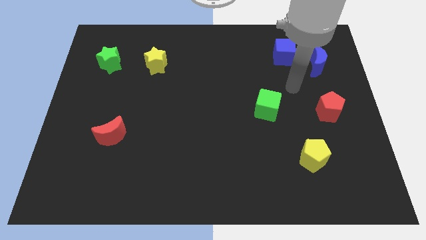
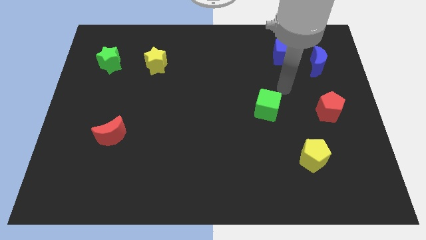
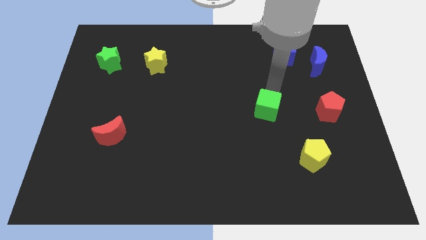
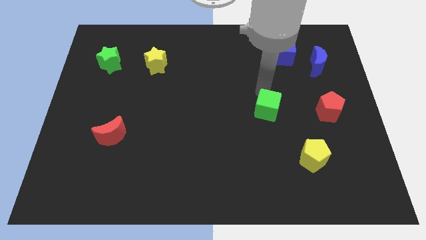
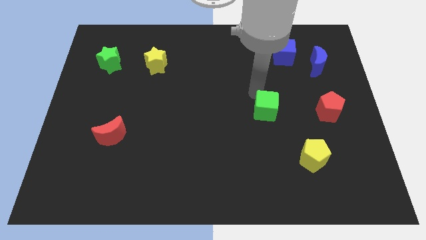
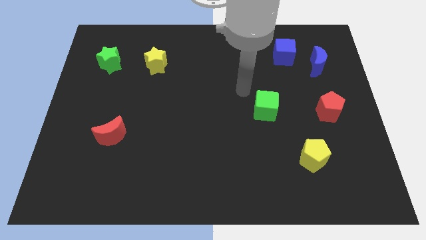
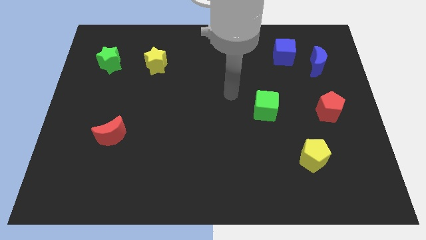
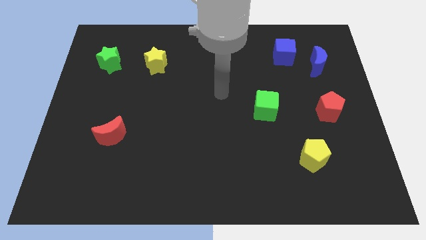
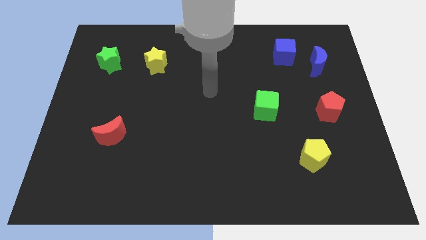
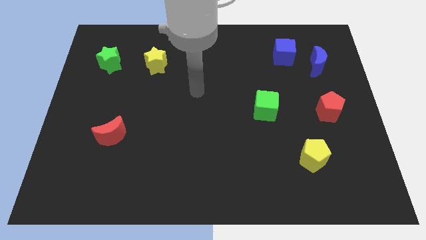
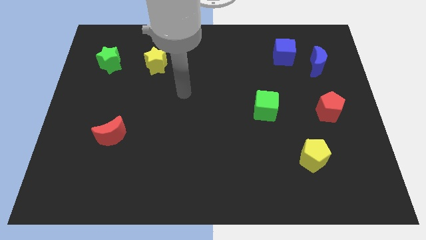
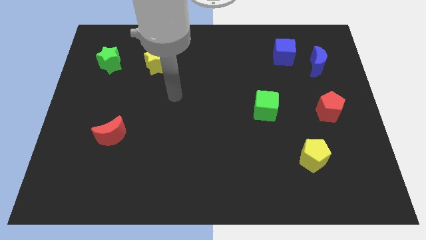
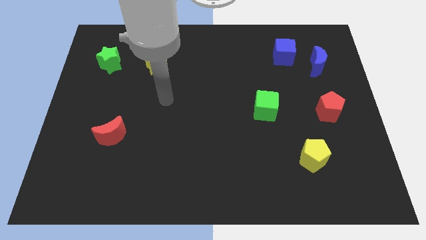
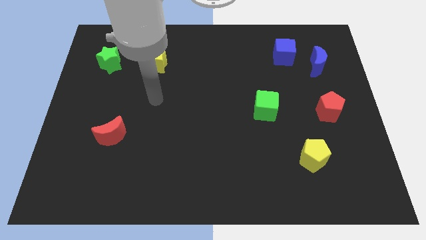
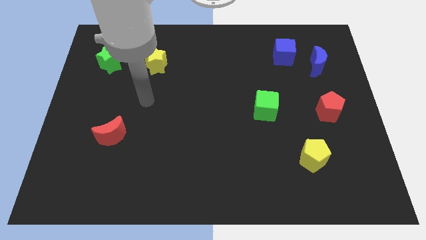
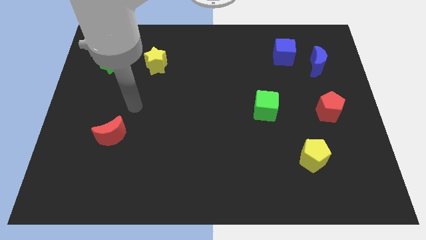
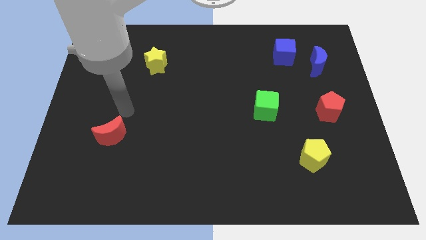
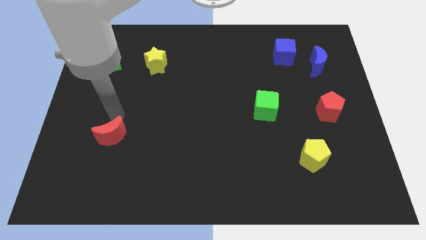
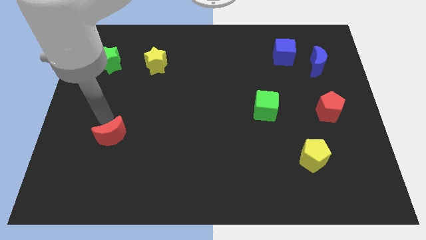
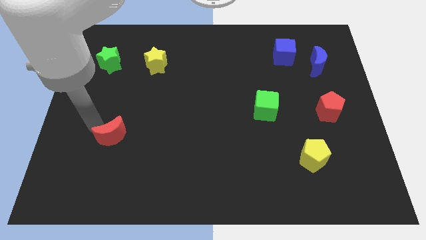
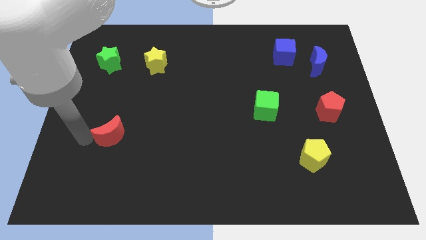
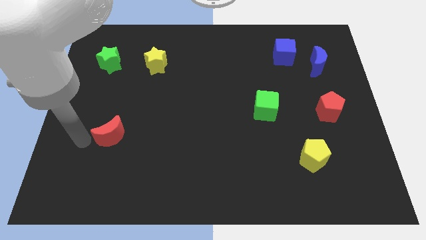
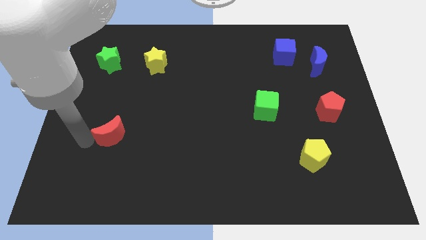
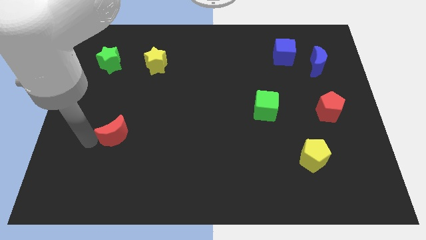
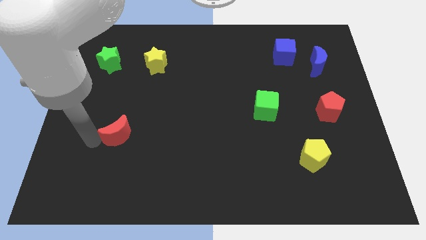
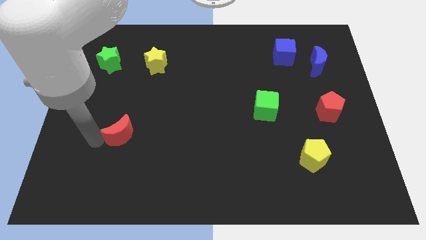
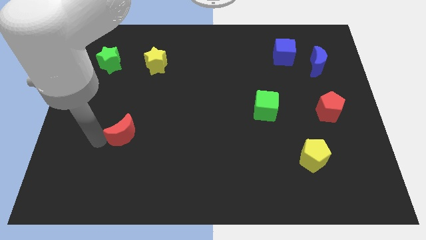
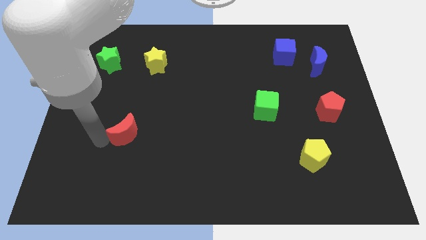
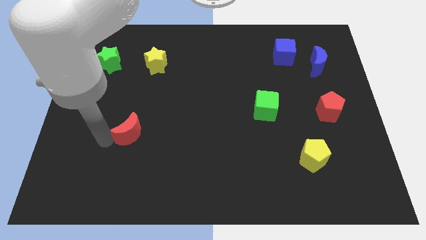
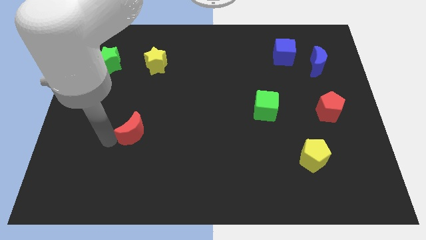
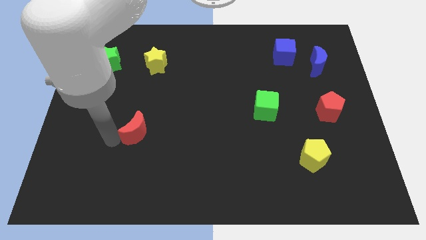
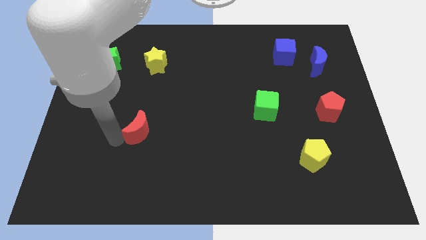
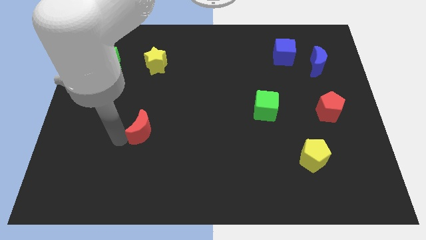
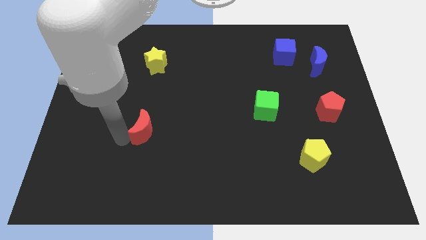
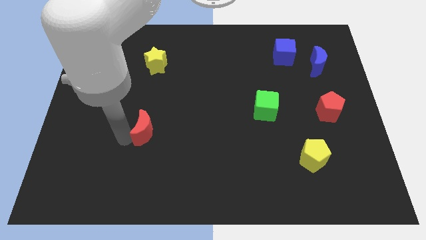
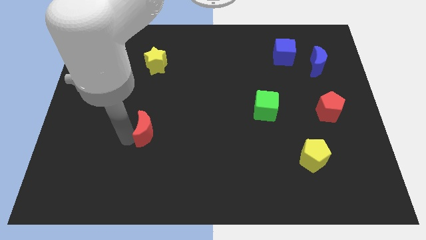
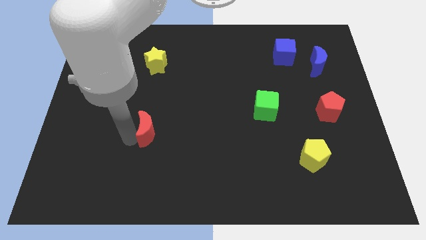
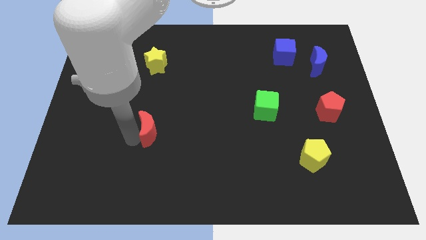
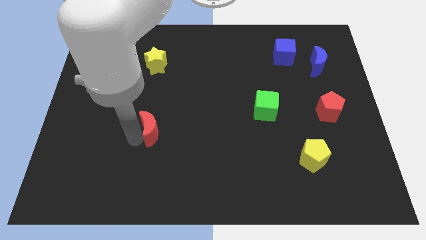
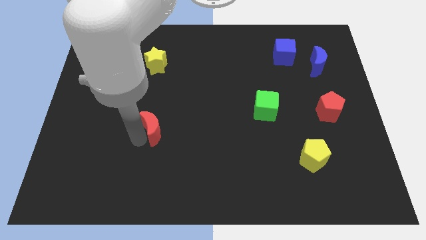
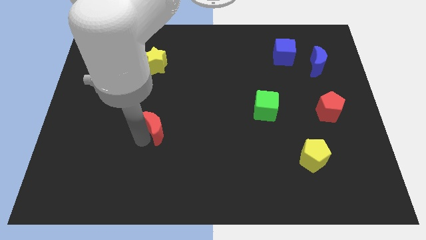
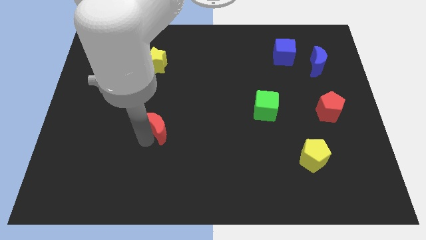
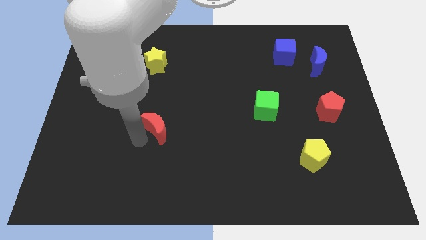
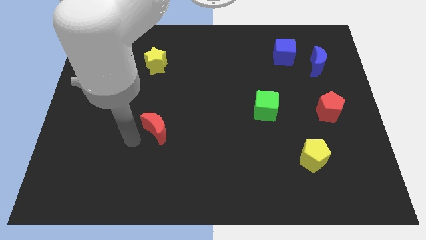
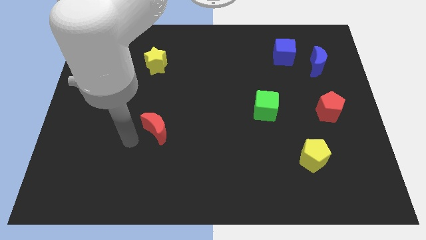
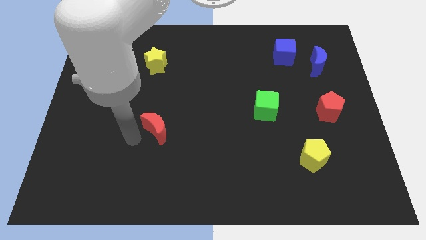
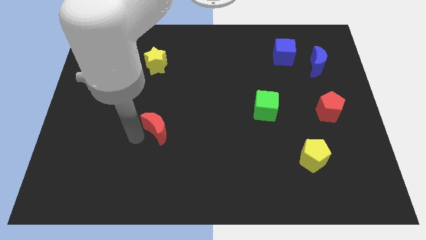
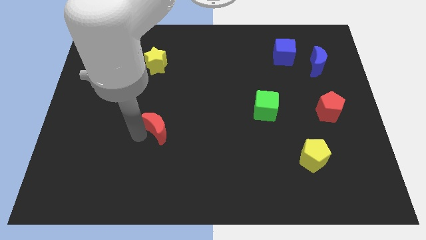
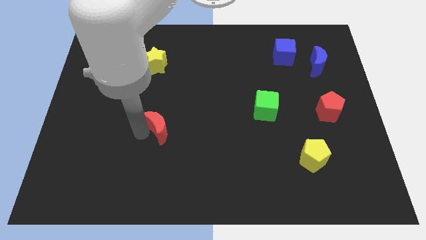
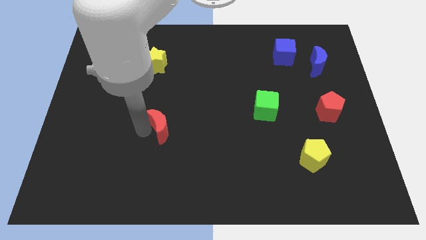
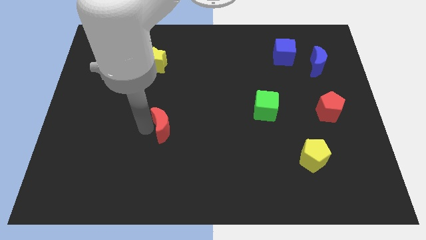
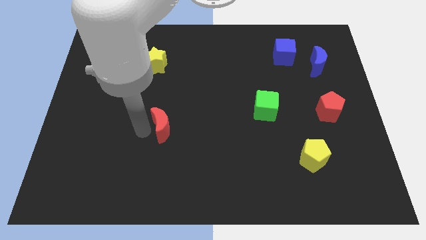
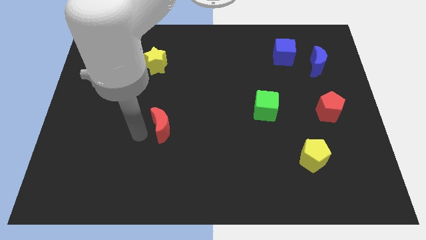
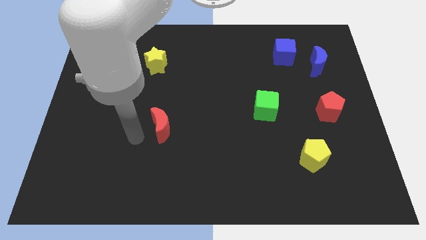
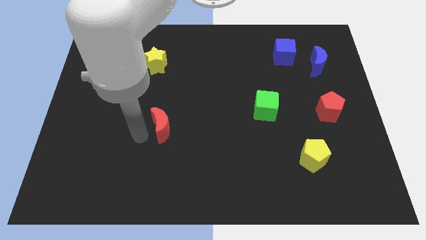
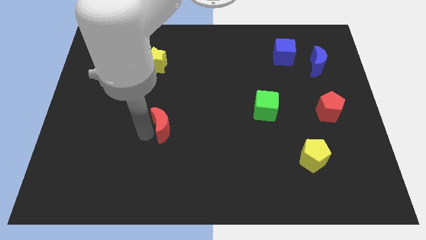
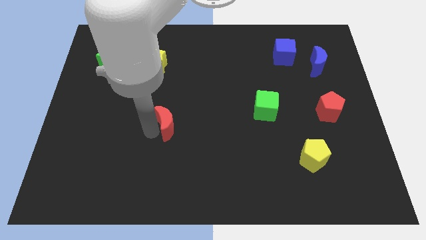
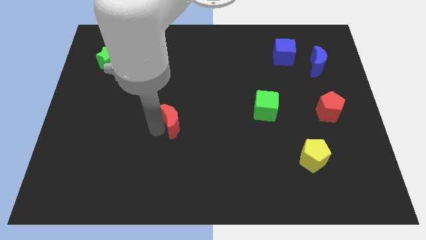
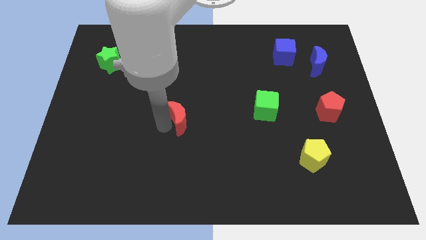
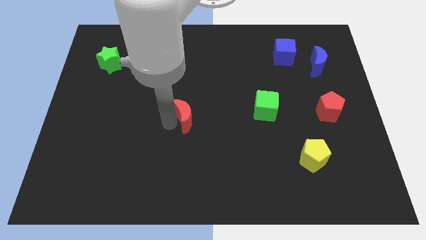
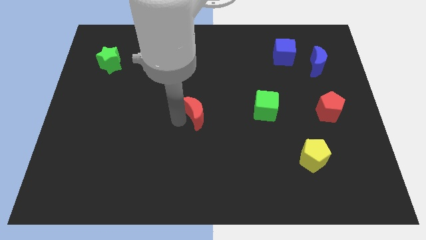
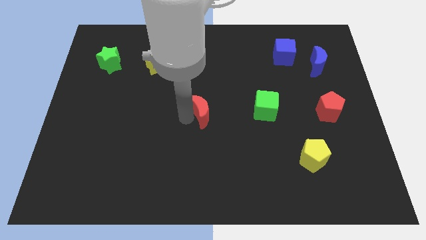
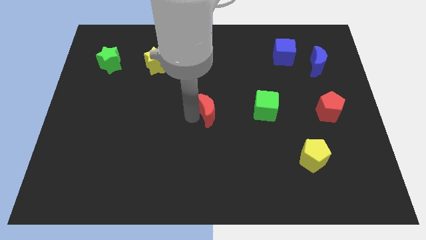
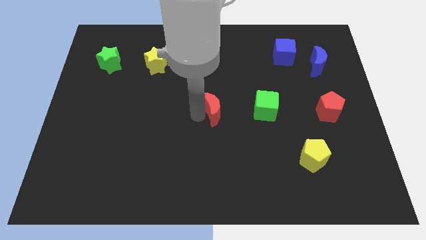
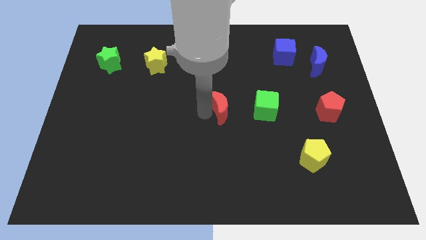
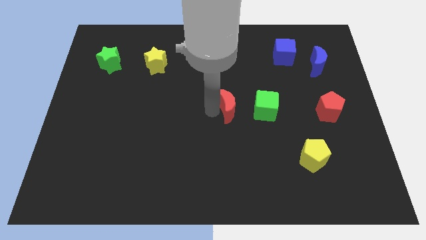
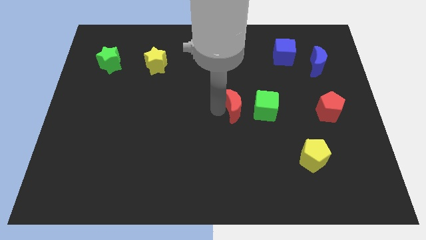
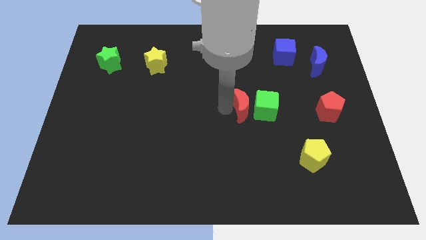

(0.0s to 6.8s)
slide the red moon to the green cube

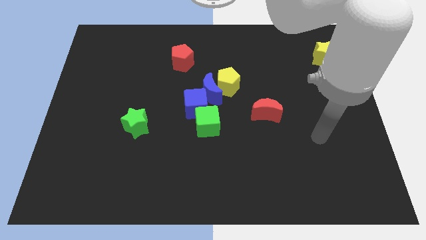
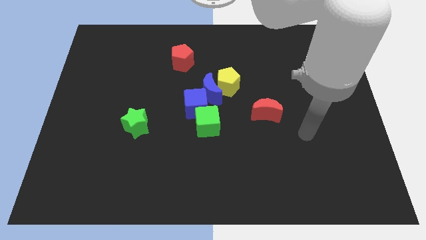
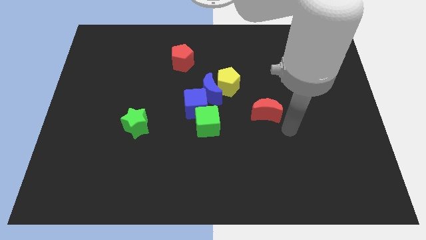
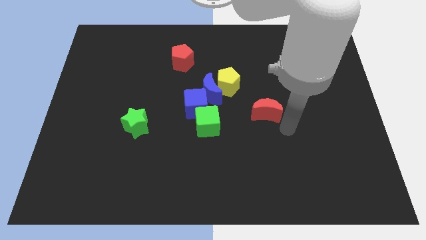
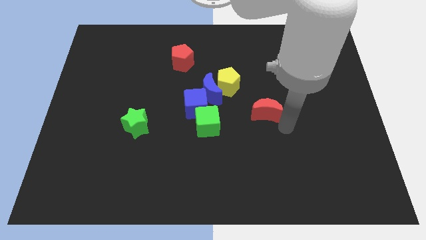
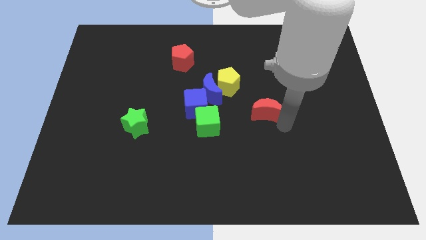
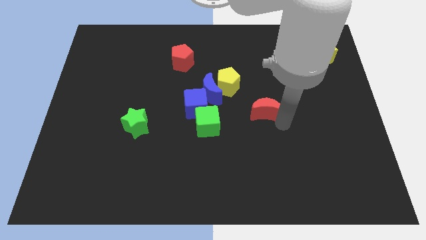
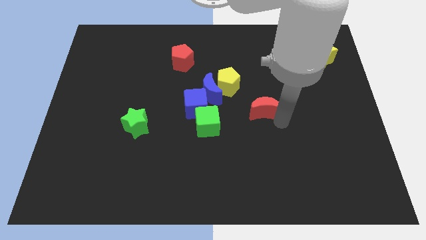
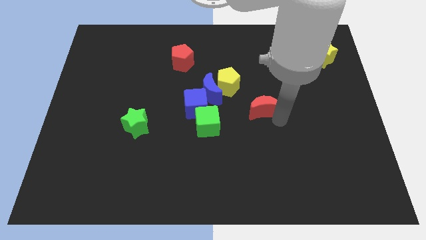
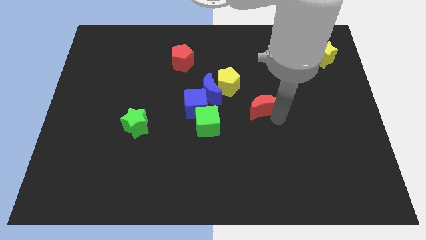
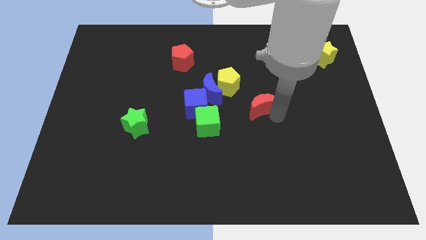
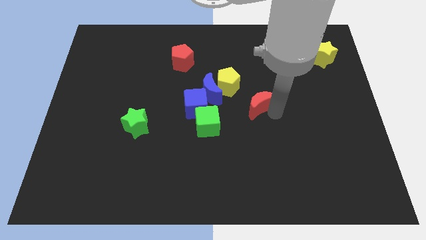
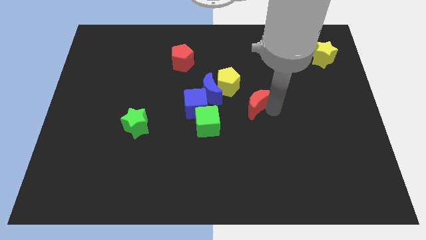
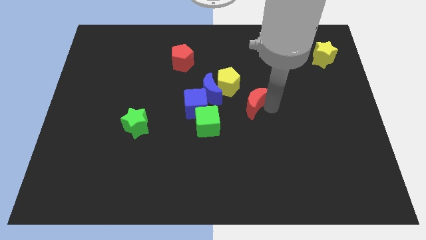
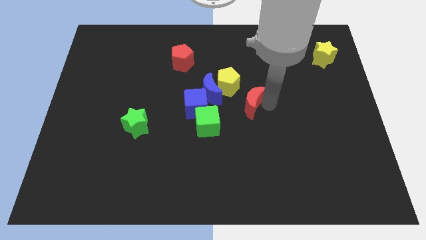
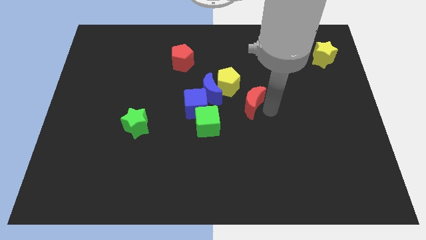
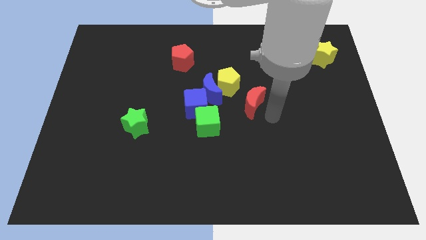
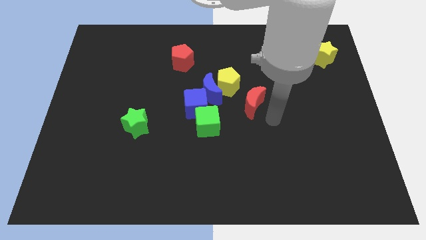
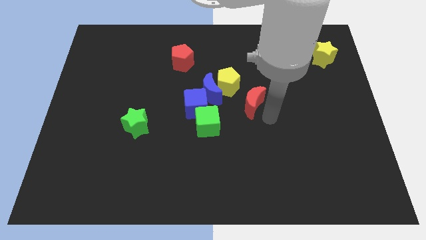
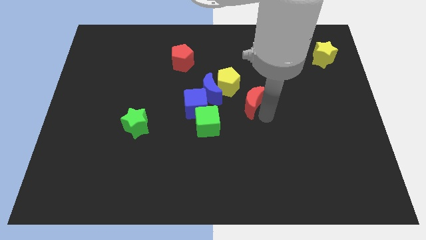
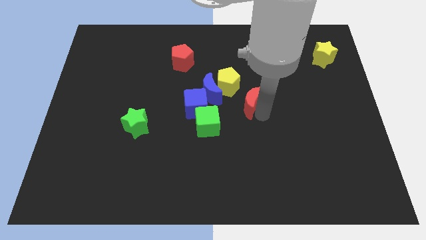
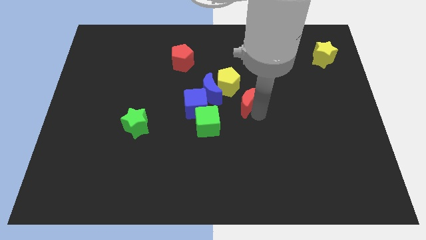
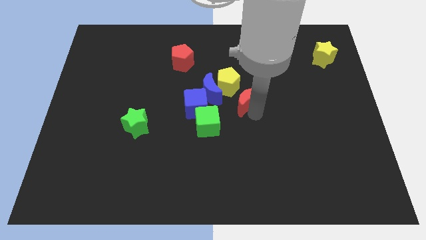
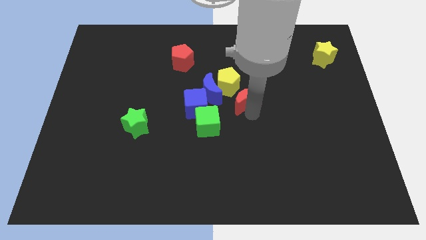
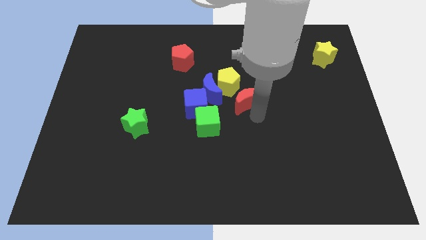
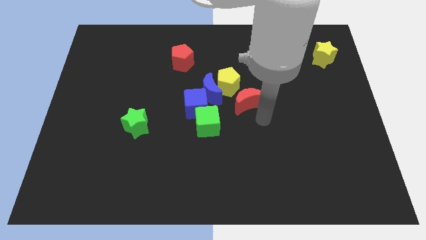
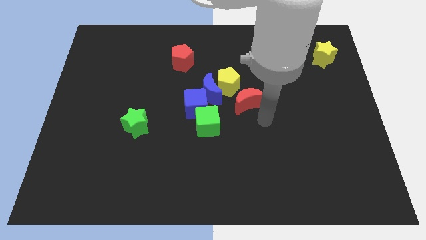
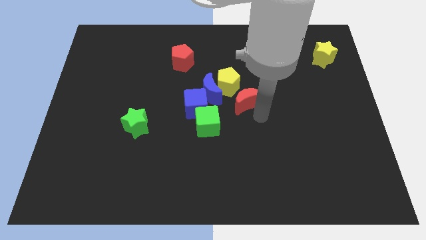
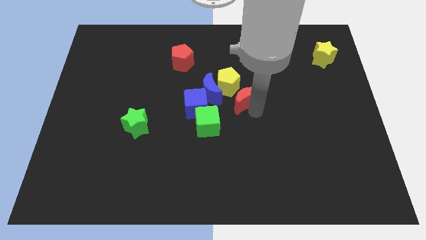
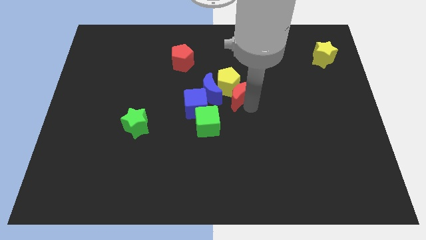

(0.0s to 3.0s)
move the red moon close to the yellow pentagon
